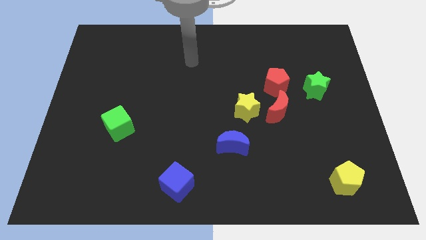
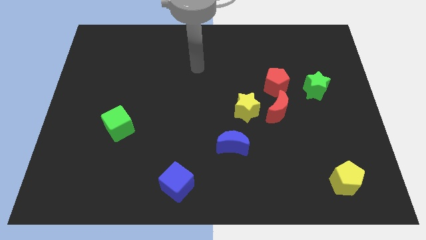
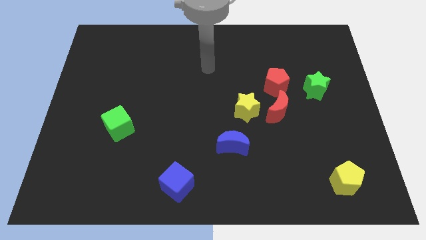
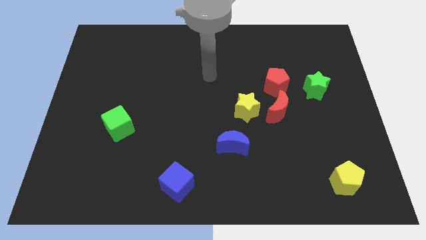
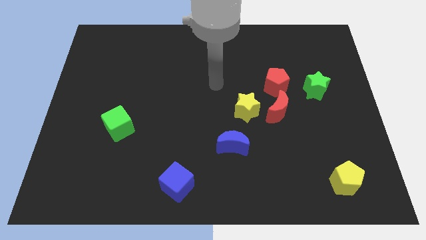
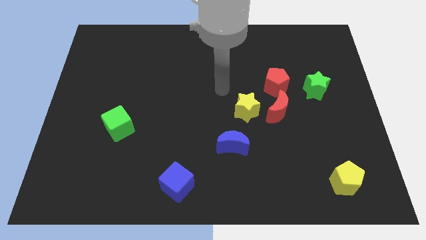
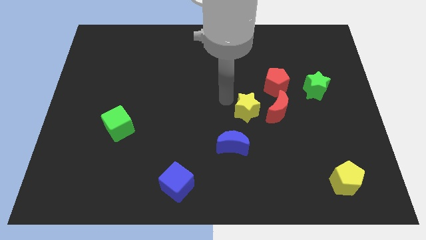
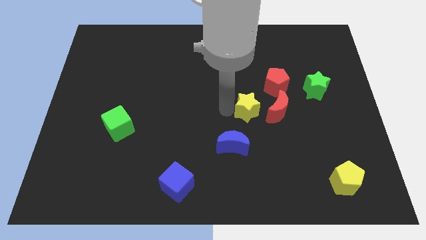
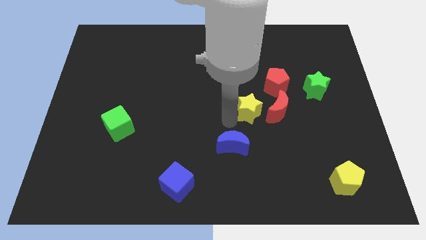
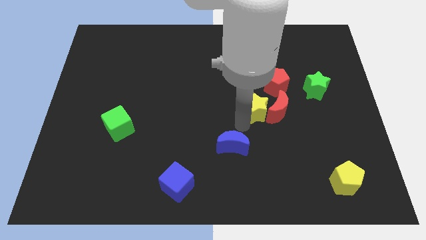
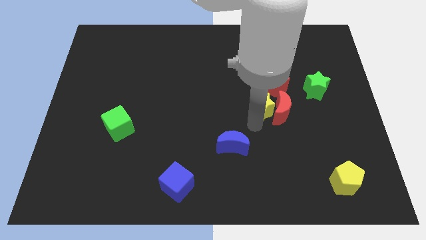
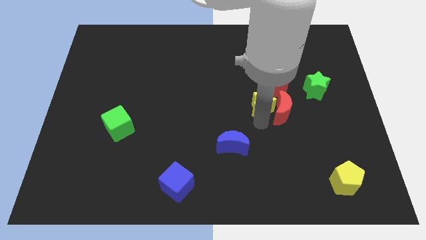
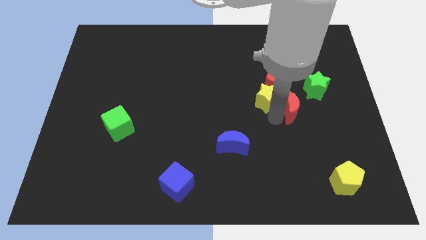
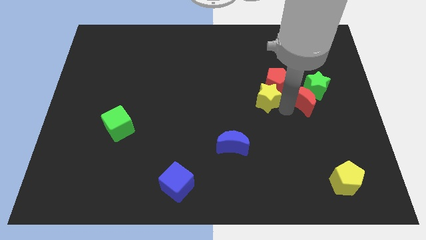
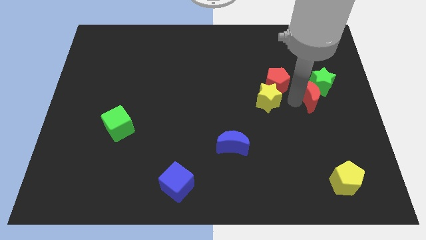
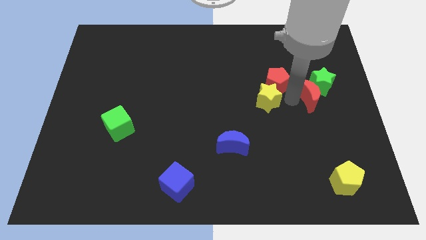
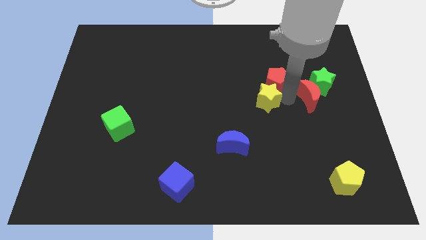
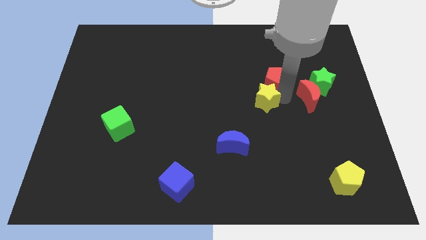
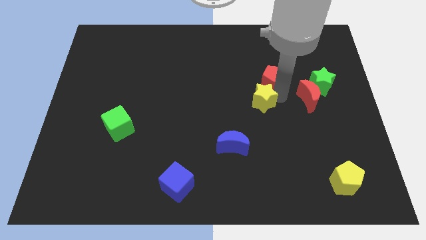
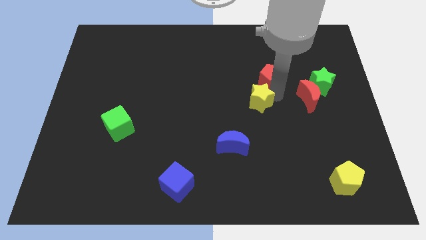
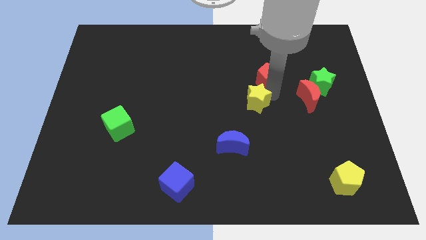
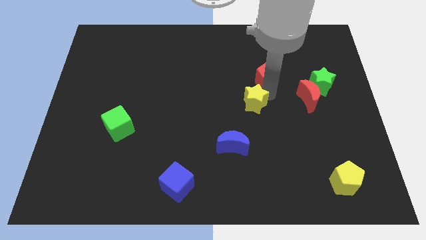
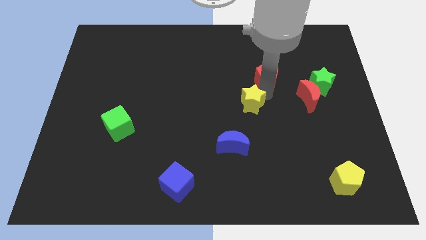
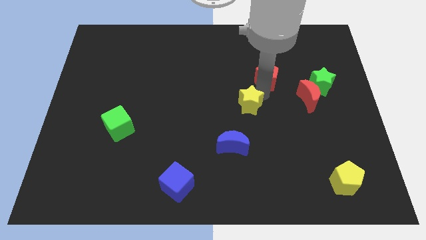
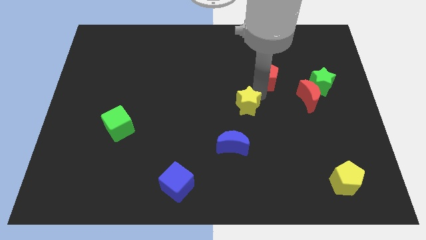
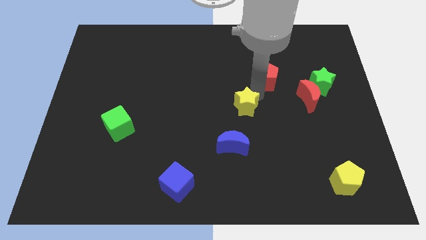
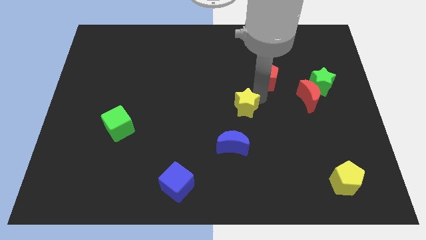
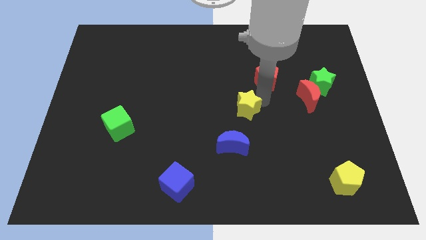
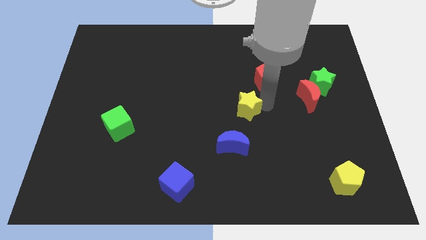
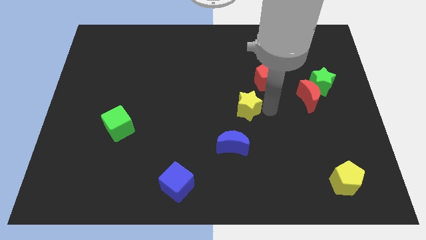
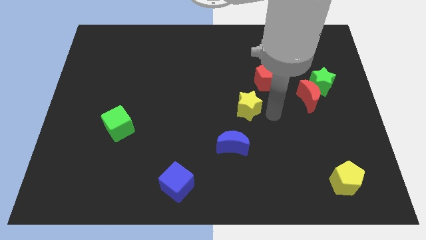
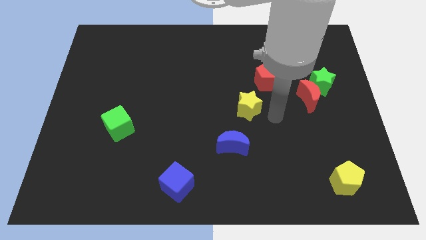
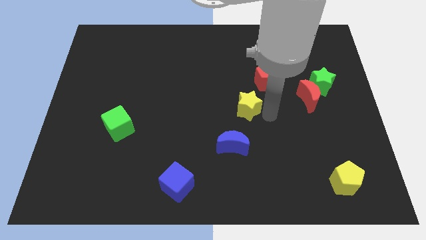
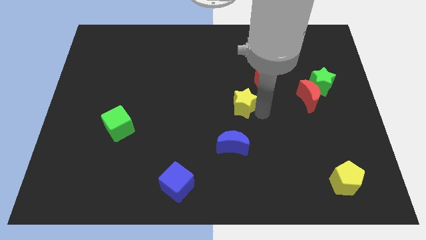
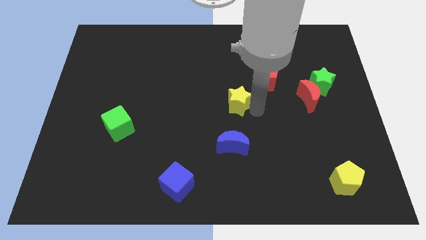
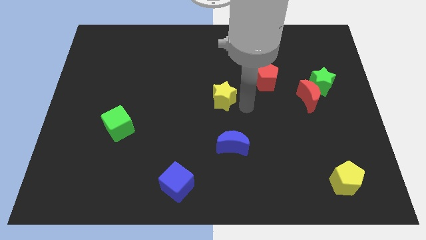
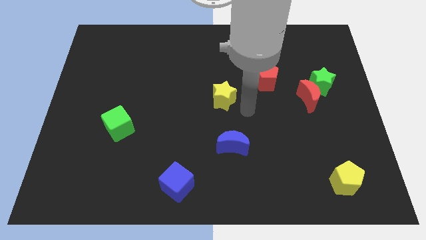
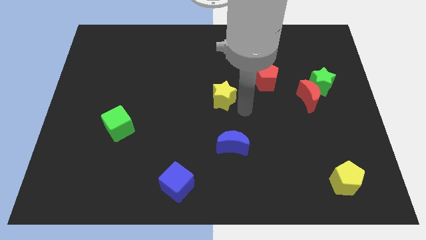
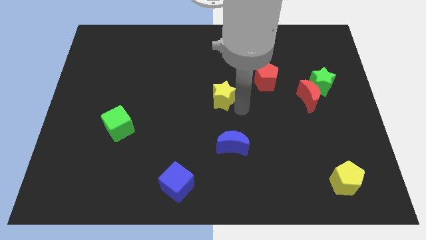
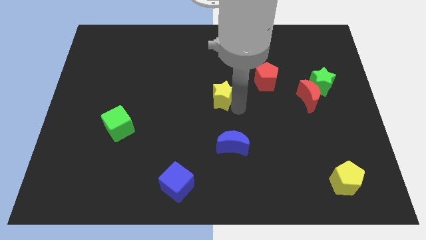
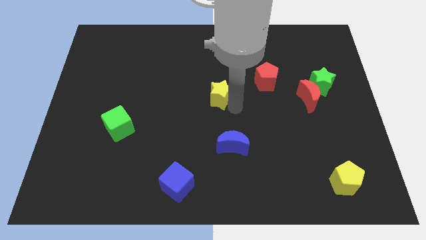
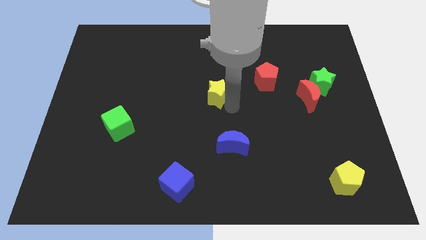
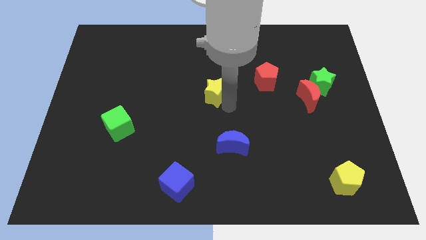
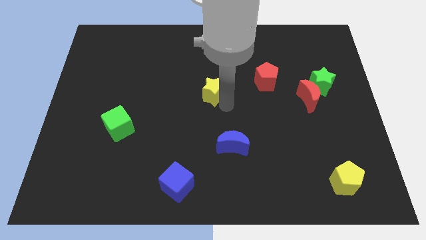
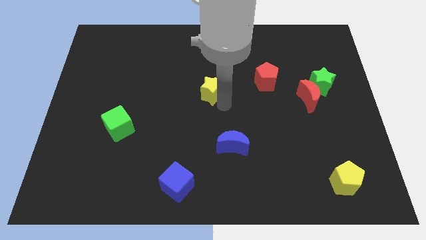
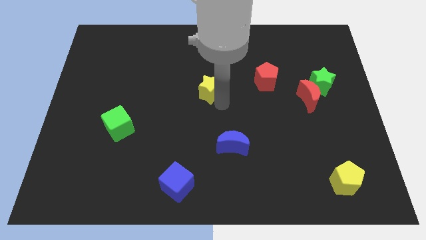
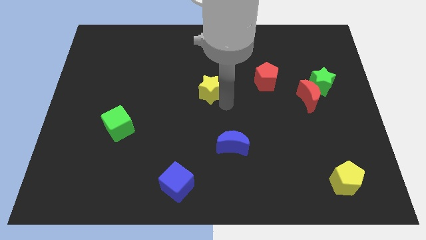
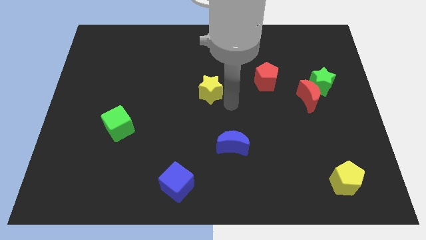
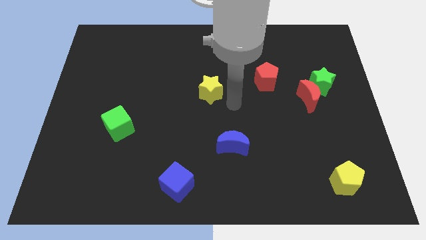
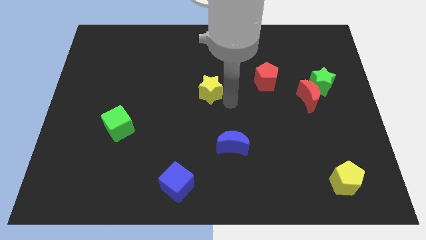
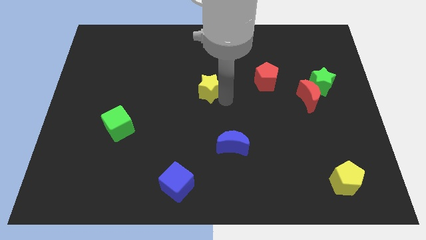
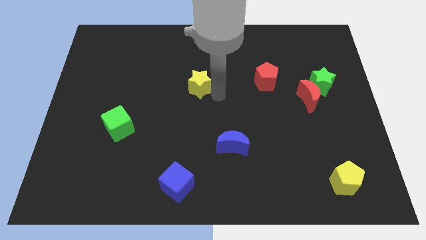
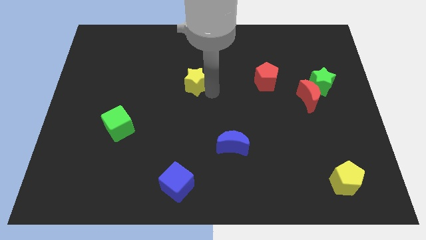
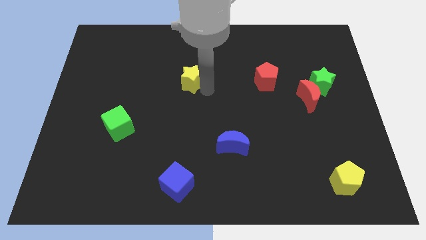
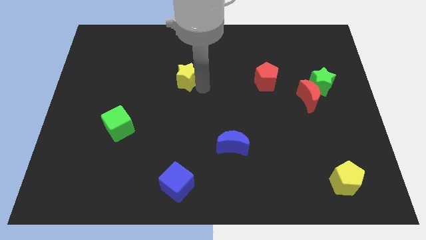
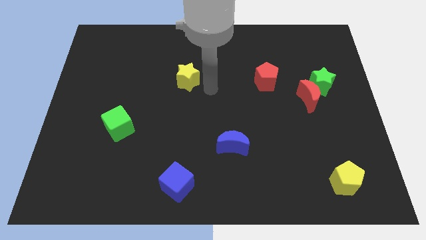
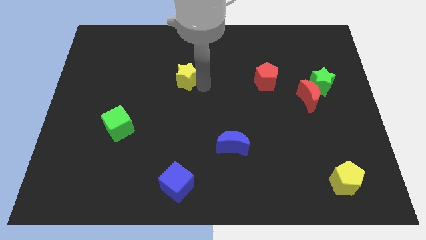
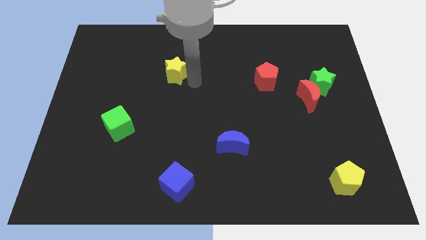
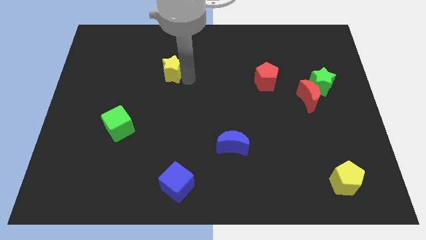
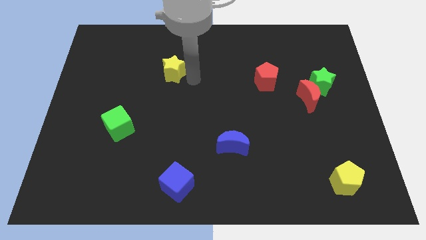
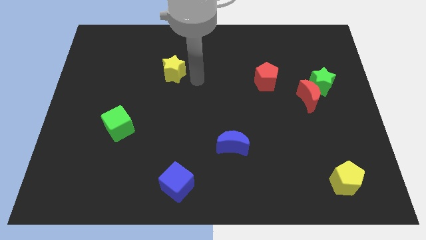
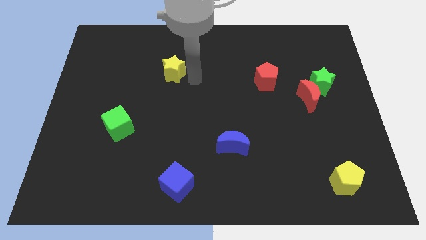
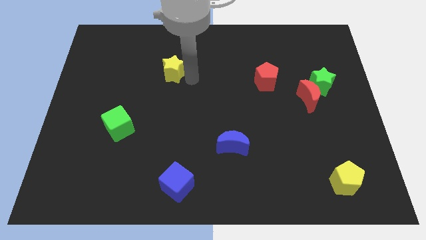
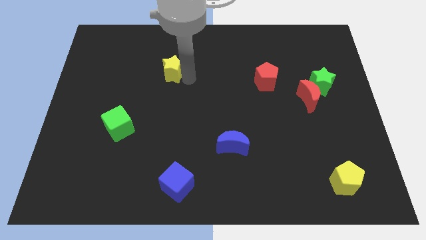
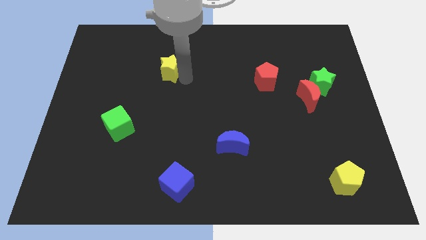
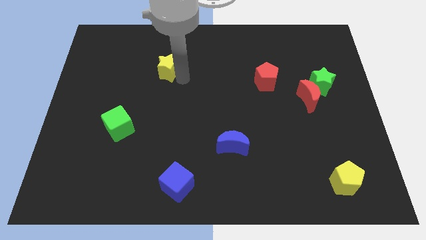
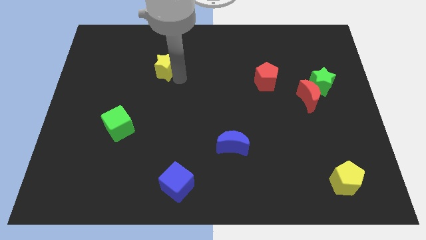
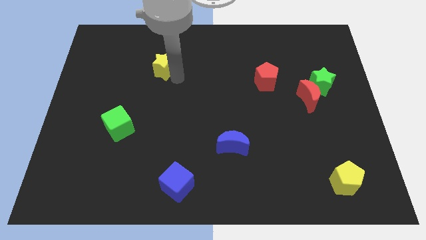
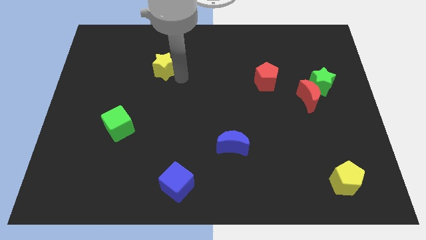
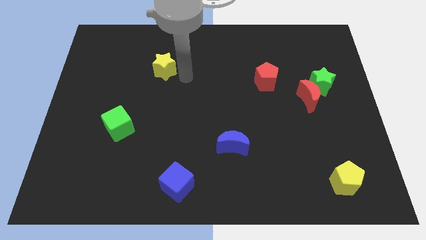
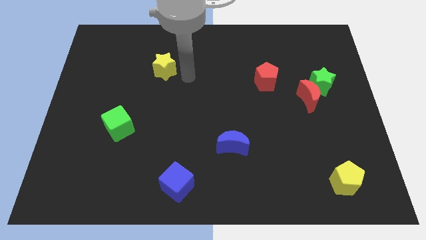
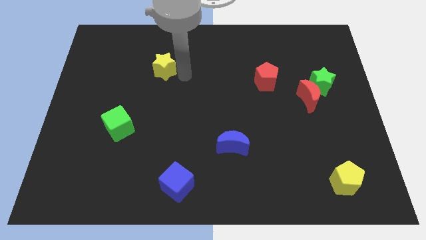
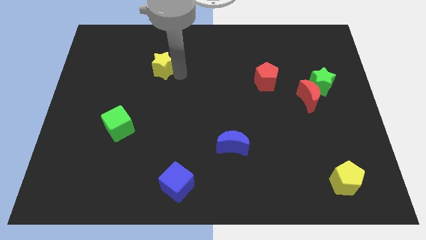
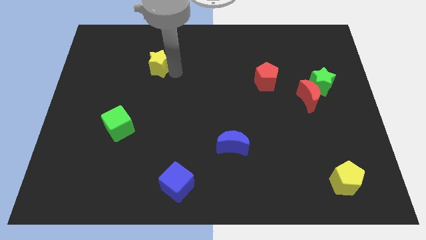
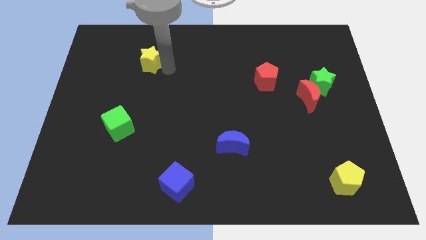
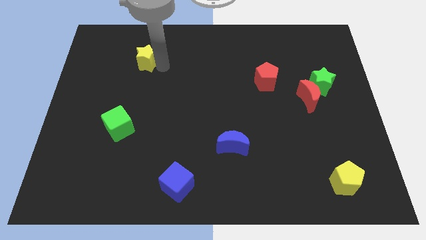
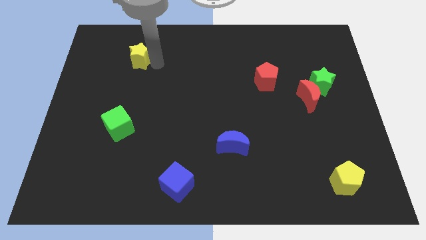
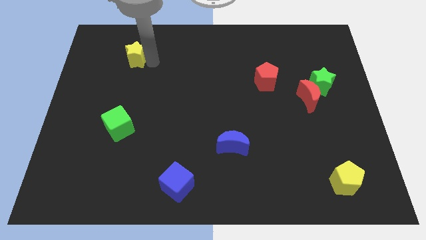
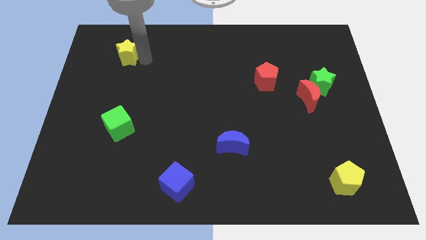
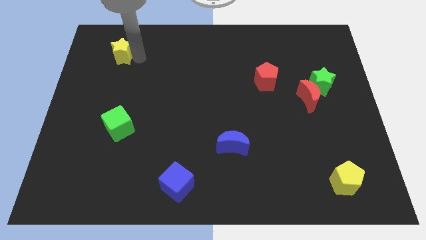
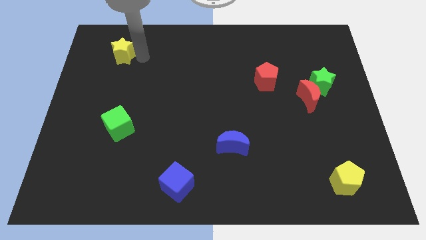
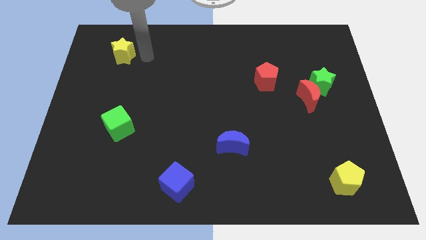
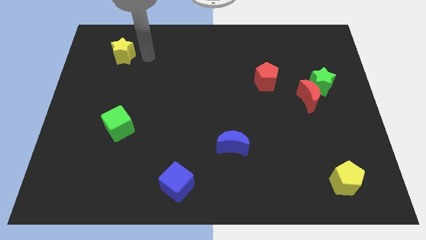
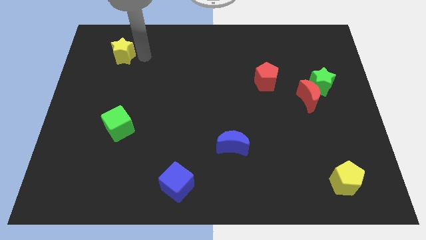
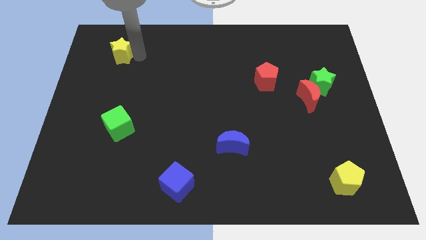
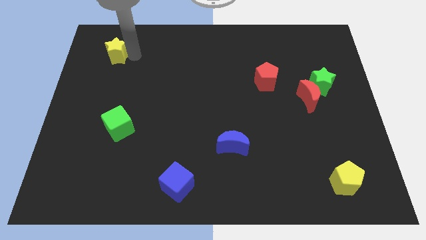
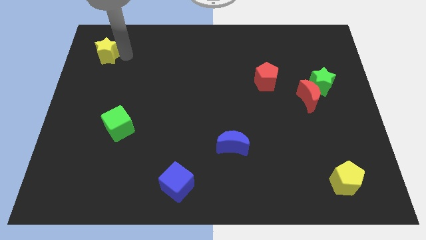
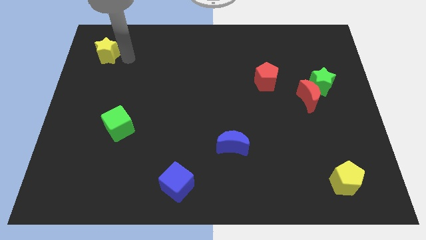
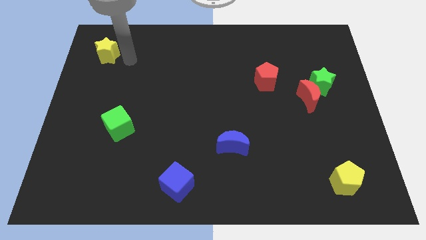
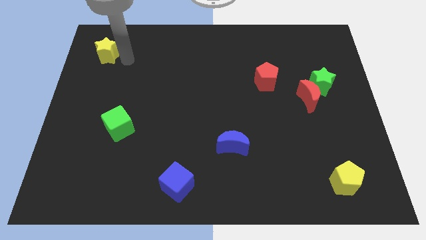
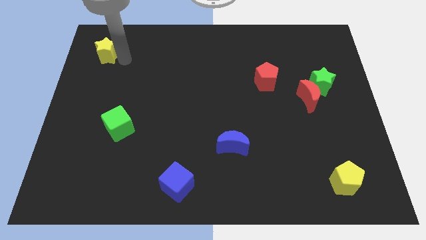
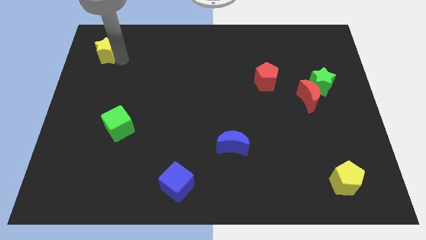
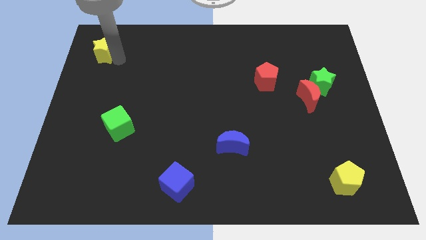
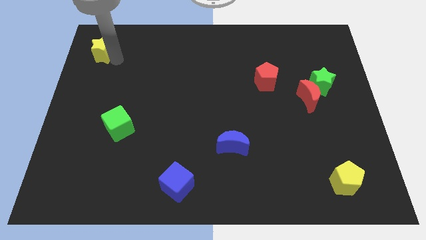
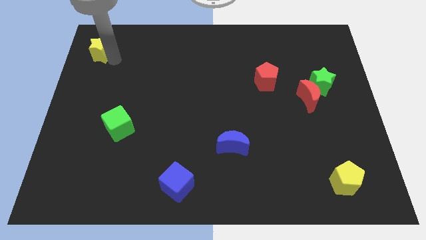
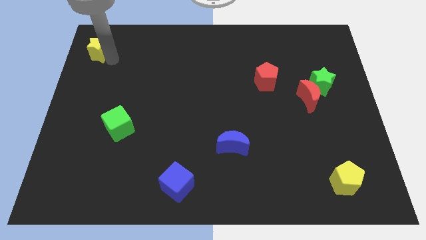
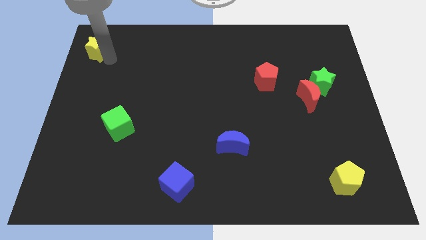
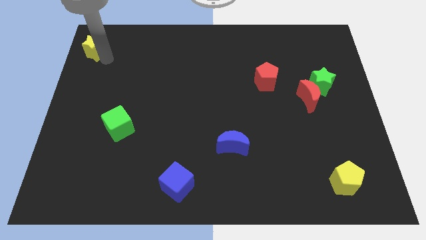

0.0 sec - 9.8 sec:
push the yellow star to the top left
